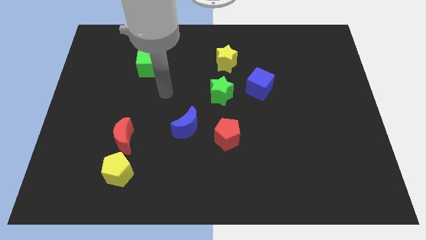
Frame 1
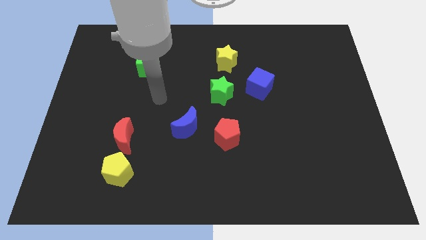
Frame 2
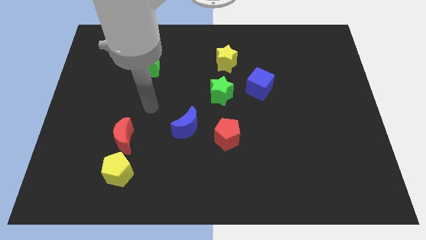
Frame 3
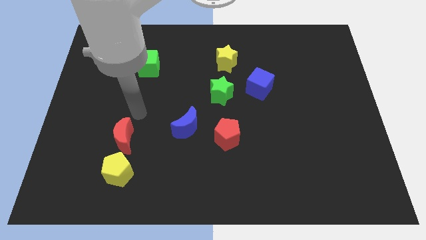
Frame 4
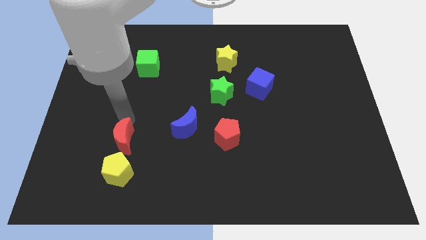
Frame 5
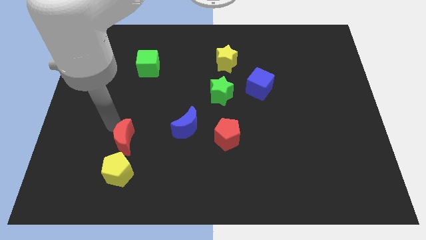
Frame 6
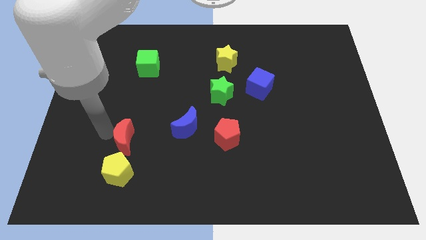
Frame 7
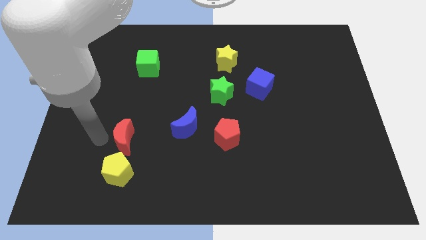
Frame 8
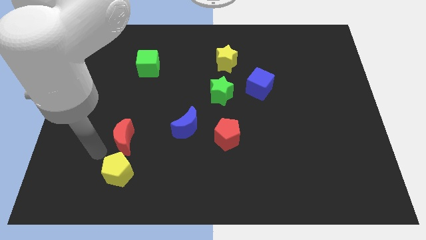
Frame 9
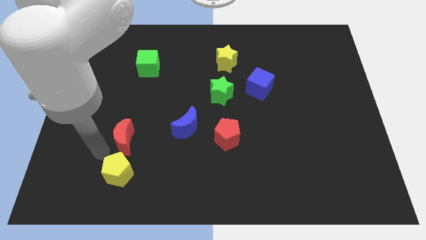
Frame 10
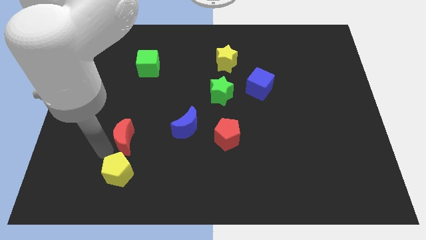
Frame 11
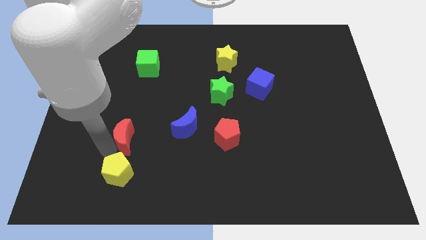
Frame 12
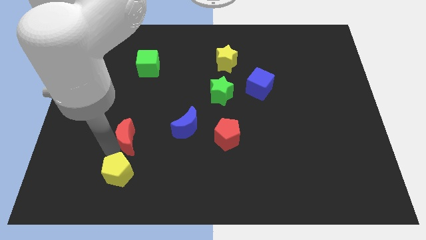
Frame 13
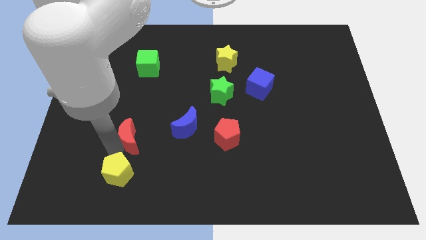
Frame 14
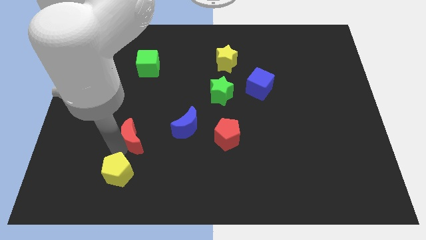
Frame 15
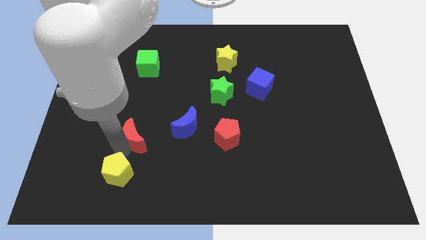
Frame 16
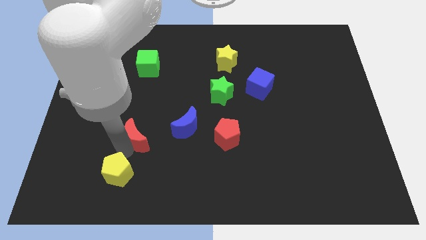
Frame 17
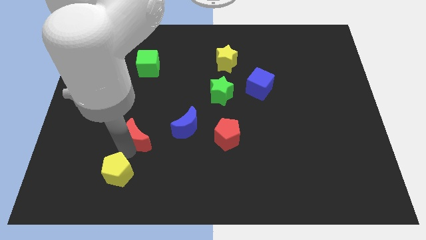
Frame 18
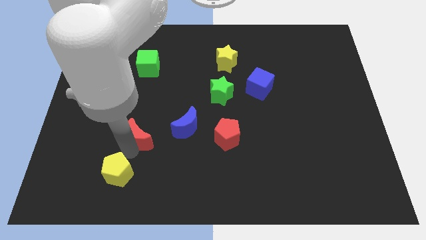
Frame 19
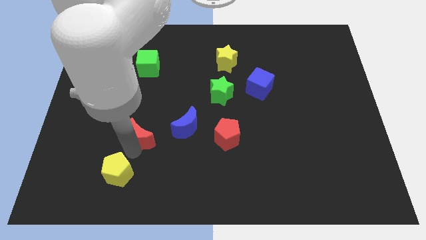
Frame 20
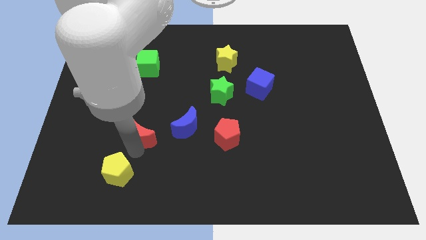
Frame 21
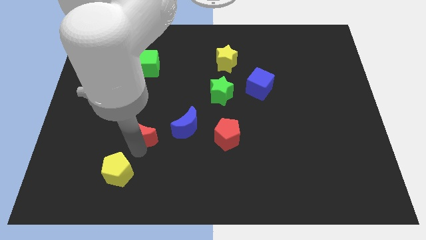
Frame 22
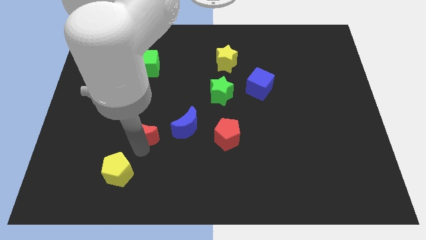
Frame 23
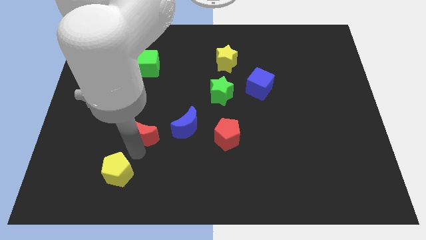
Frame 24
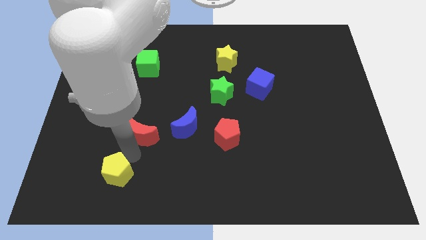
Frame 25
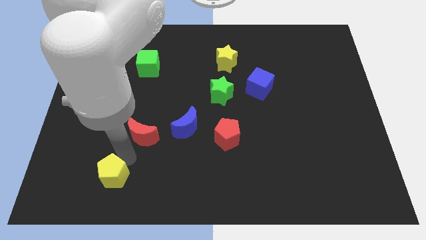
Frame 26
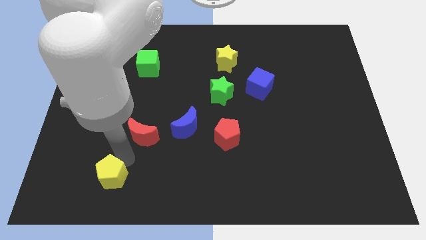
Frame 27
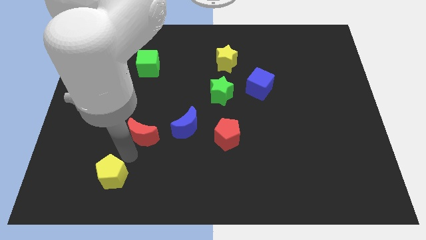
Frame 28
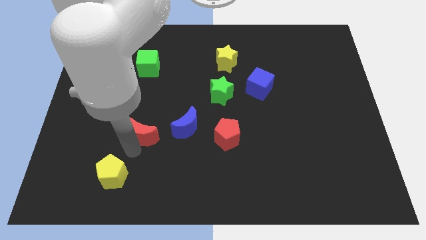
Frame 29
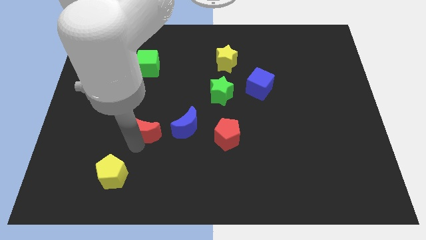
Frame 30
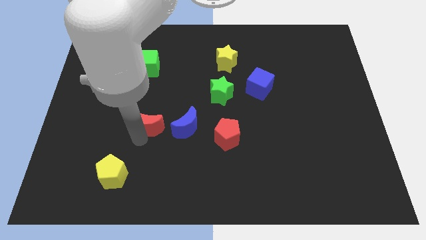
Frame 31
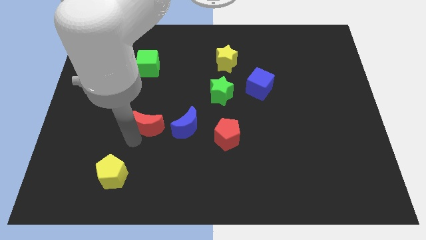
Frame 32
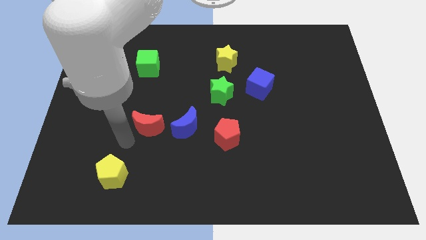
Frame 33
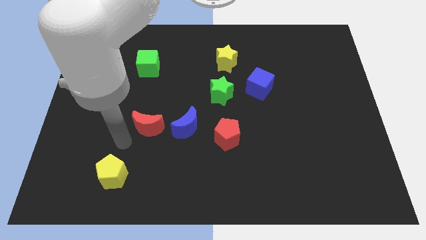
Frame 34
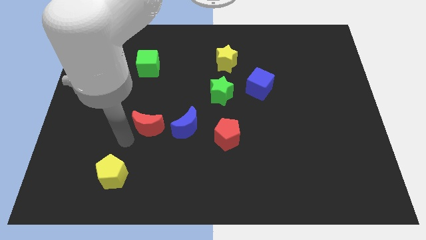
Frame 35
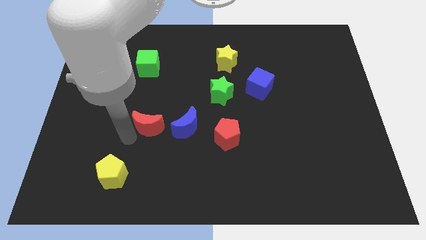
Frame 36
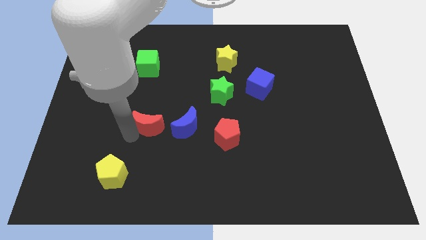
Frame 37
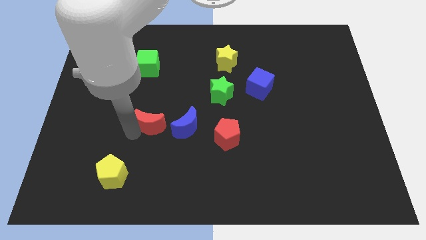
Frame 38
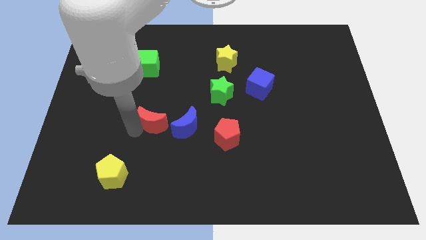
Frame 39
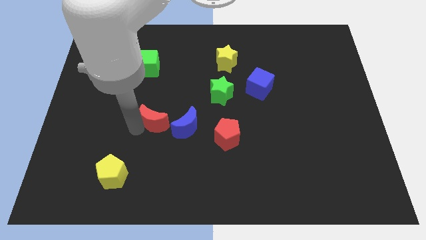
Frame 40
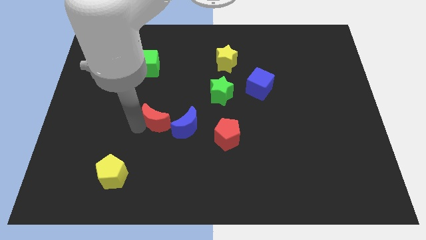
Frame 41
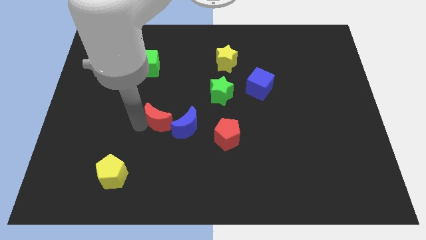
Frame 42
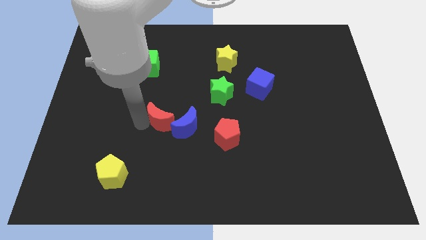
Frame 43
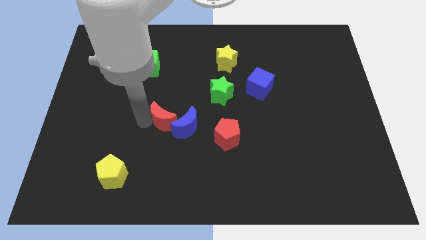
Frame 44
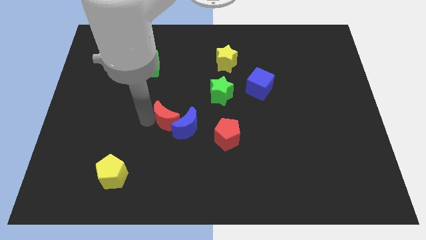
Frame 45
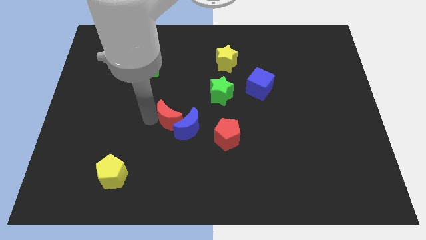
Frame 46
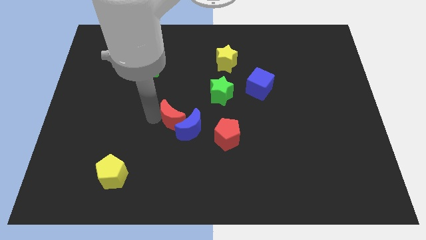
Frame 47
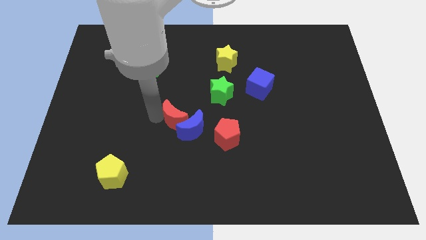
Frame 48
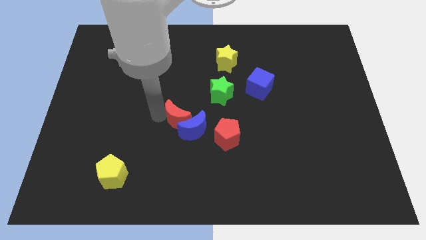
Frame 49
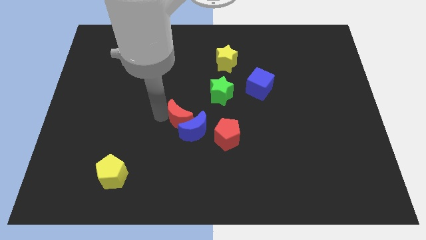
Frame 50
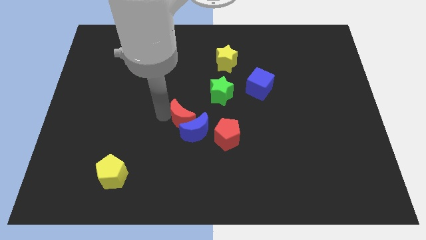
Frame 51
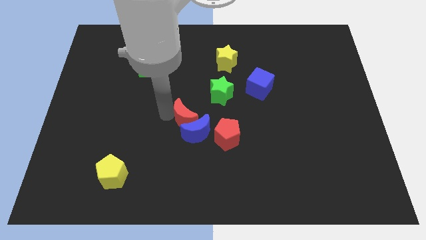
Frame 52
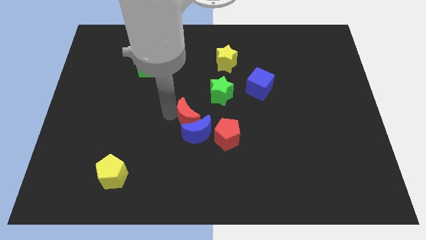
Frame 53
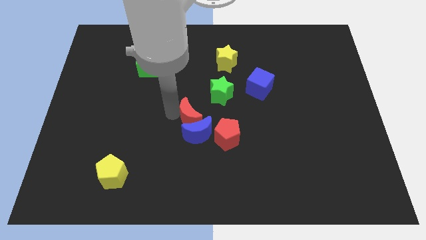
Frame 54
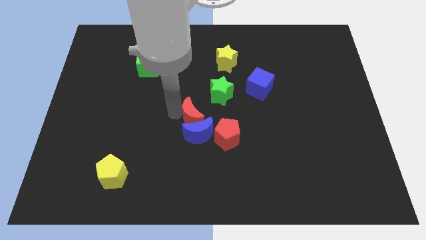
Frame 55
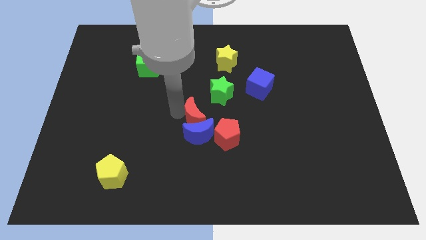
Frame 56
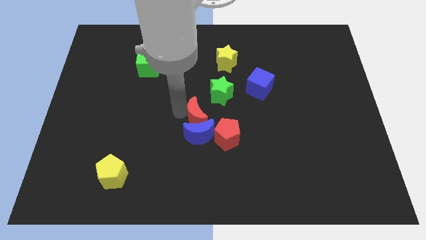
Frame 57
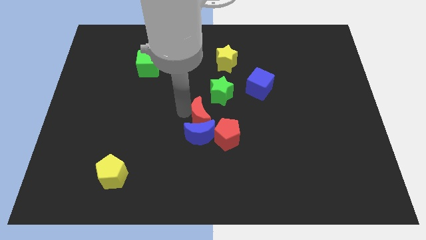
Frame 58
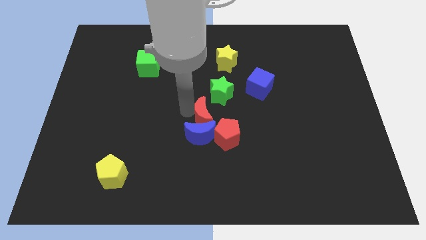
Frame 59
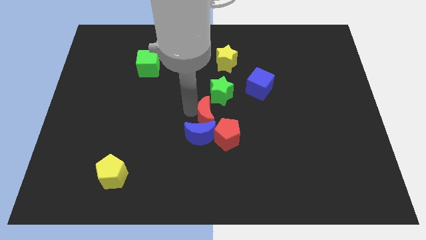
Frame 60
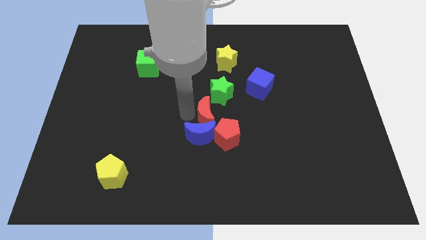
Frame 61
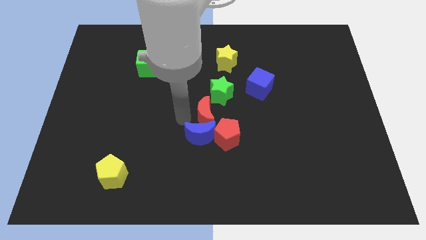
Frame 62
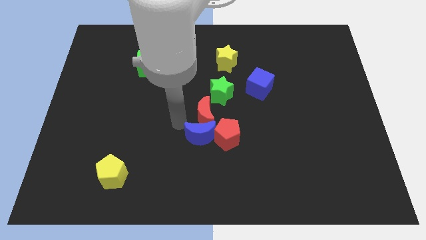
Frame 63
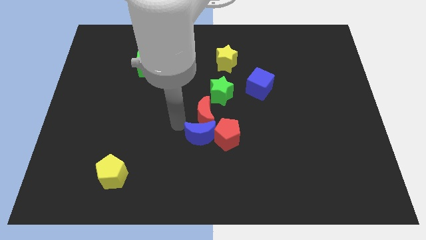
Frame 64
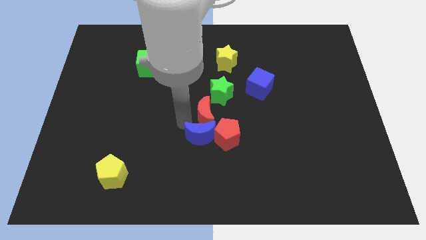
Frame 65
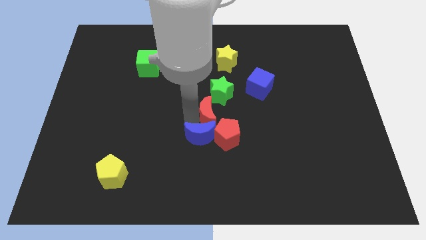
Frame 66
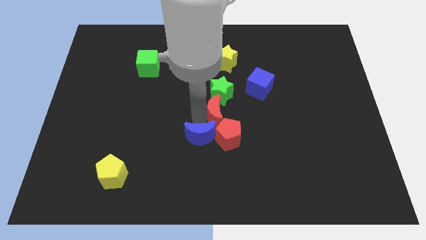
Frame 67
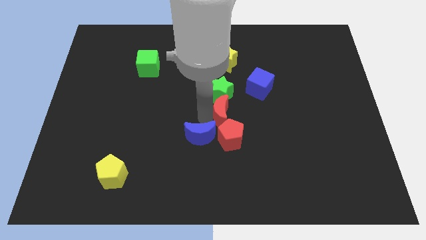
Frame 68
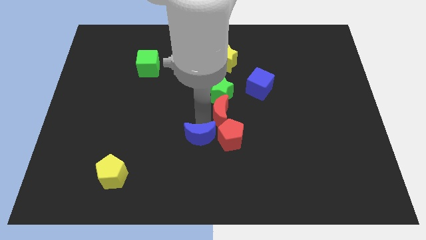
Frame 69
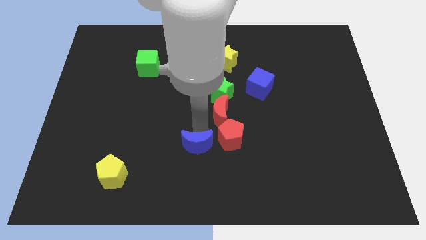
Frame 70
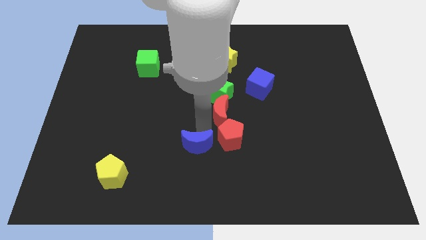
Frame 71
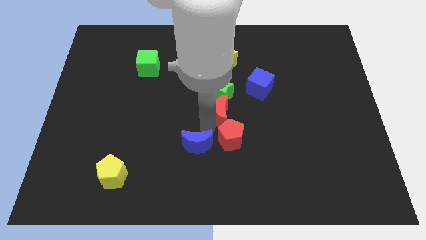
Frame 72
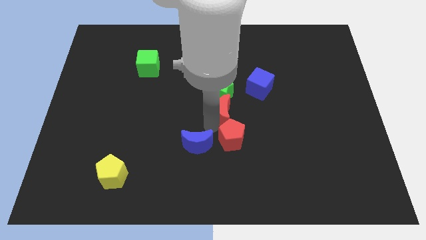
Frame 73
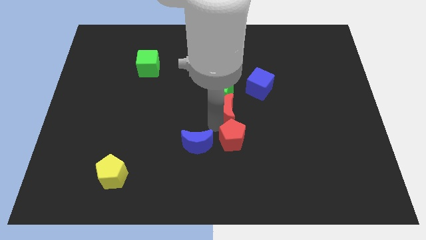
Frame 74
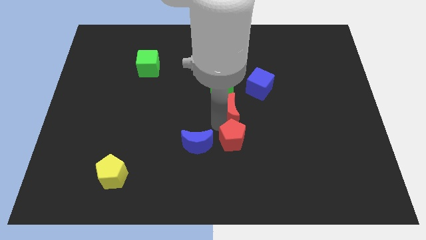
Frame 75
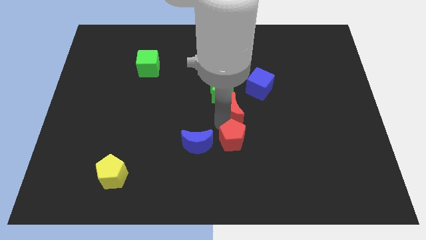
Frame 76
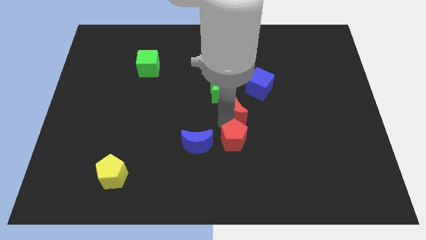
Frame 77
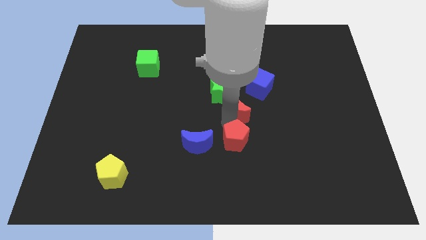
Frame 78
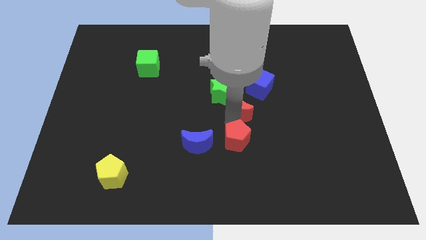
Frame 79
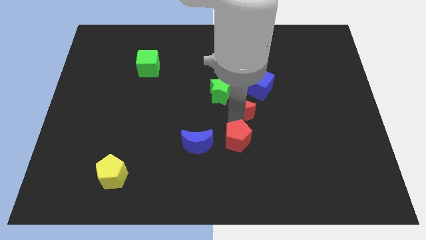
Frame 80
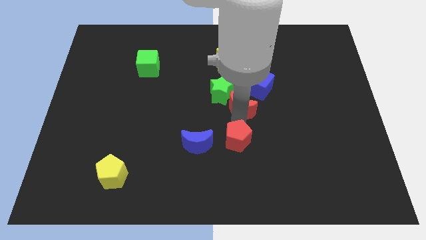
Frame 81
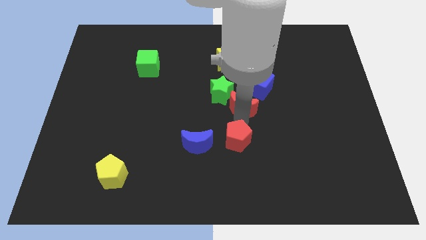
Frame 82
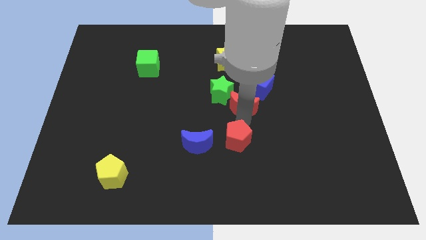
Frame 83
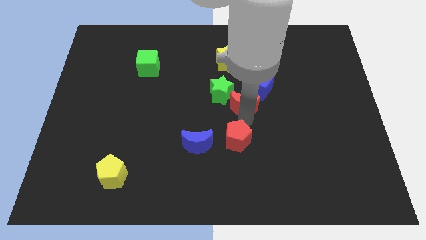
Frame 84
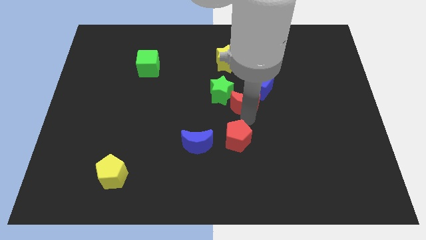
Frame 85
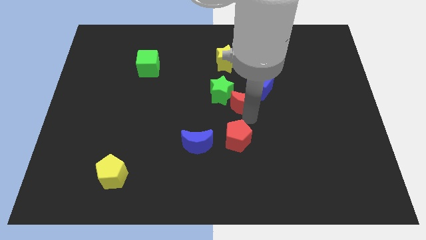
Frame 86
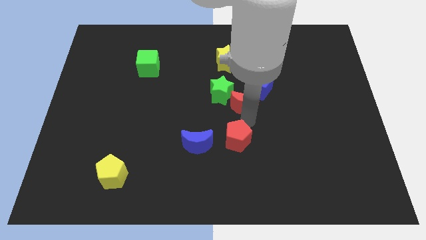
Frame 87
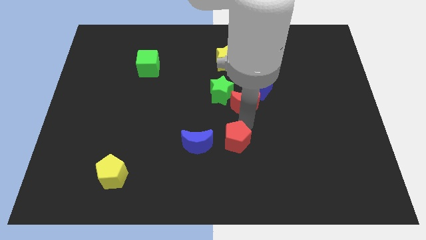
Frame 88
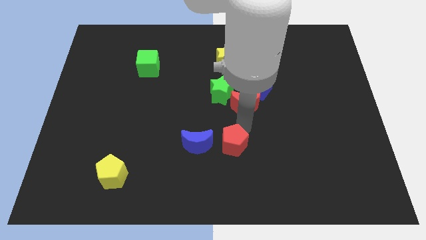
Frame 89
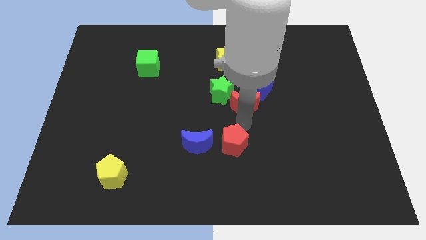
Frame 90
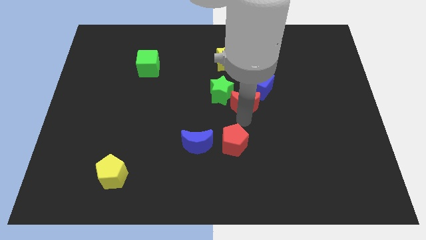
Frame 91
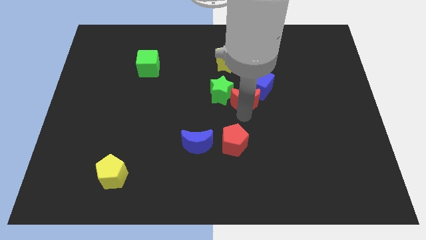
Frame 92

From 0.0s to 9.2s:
move the red moon next to the blue cube
